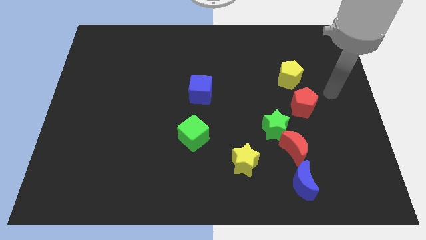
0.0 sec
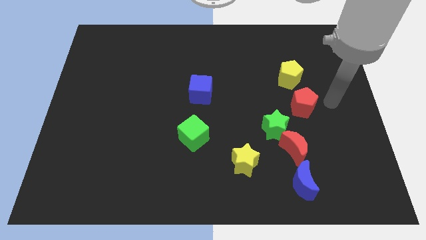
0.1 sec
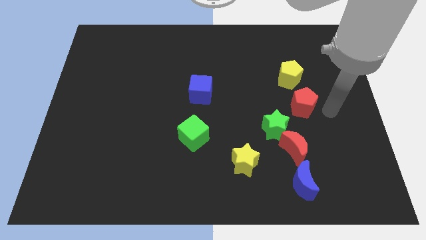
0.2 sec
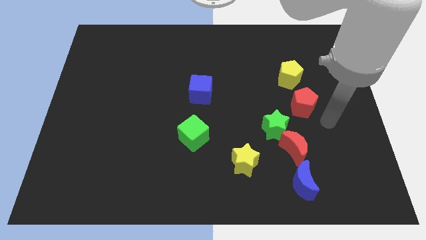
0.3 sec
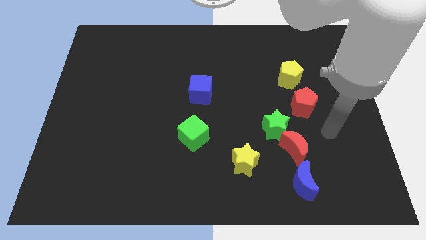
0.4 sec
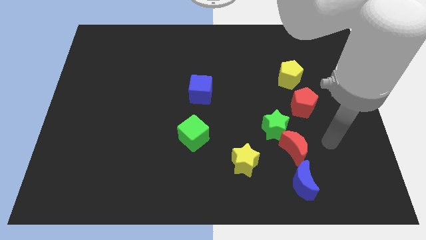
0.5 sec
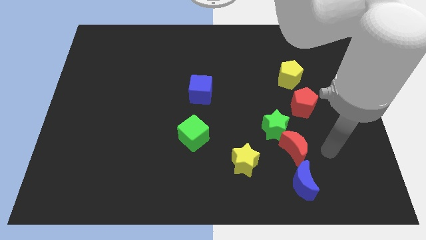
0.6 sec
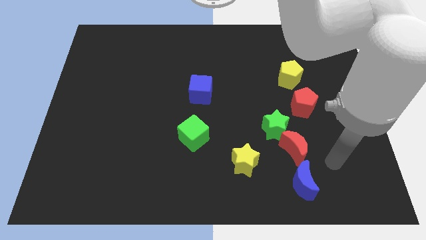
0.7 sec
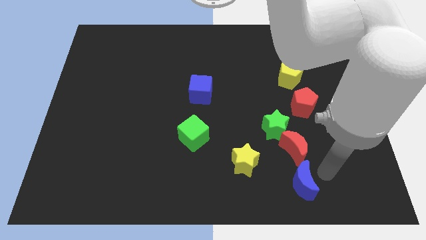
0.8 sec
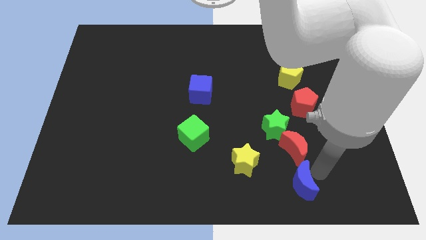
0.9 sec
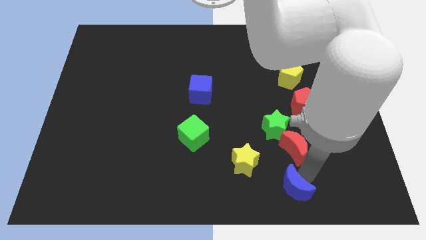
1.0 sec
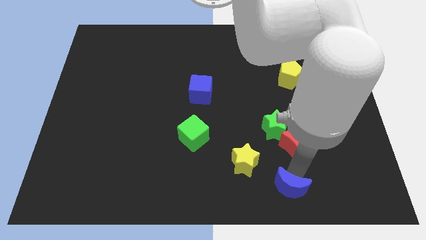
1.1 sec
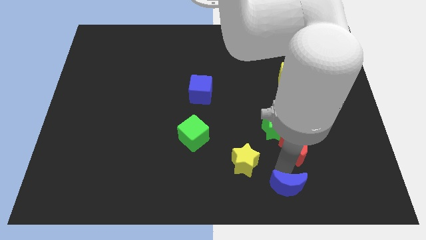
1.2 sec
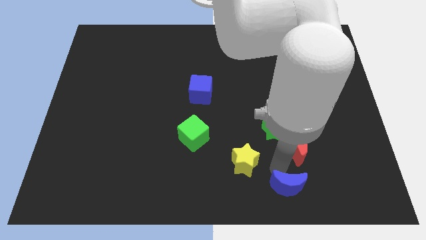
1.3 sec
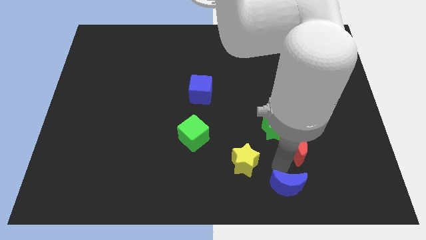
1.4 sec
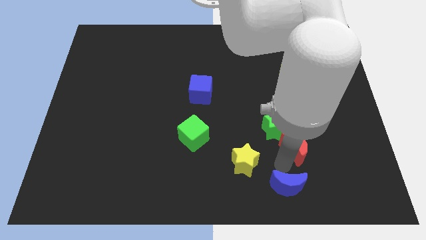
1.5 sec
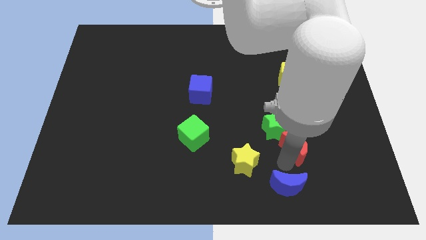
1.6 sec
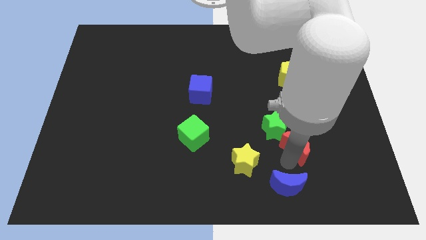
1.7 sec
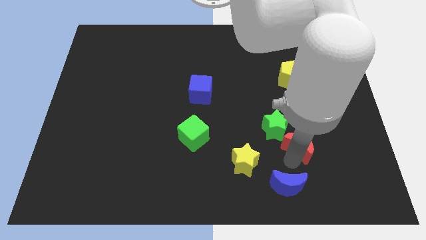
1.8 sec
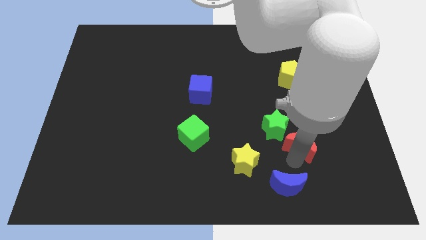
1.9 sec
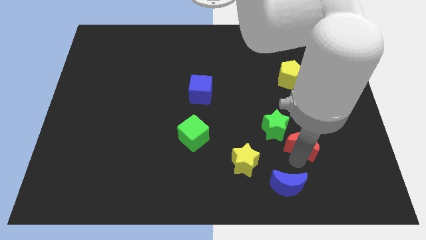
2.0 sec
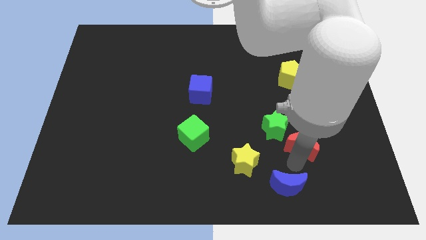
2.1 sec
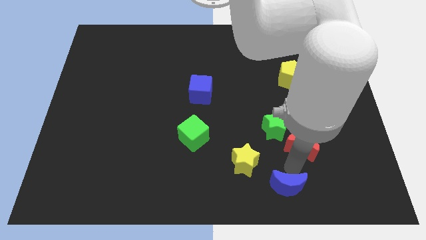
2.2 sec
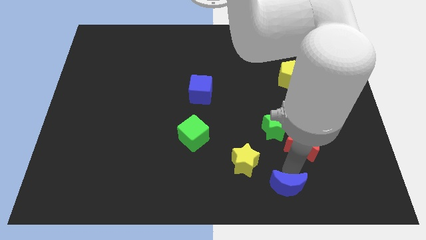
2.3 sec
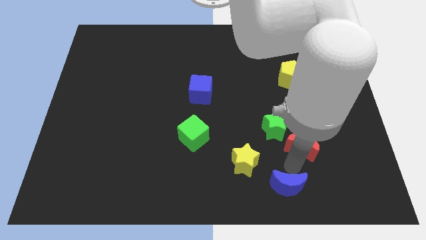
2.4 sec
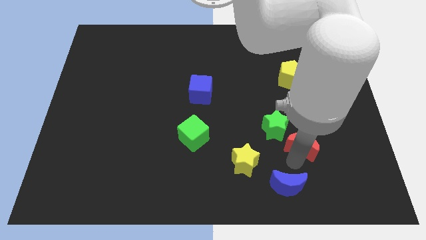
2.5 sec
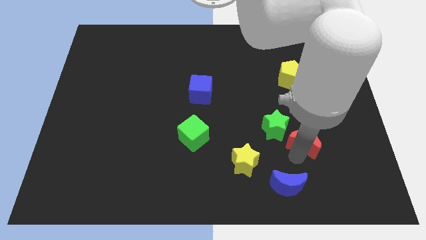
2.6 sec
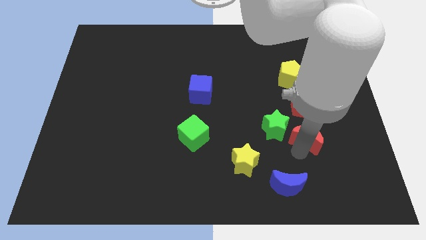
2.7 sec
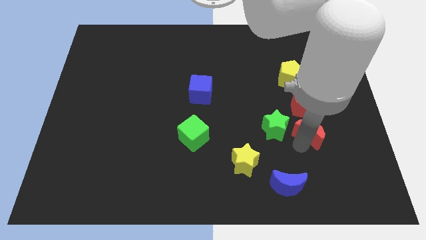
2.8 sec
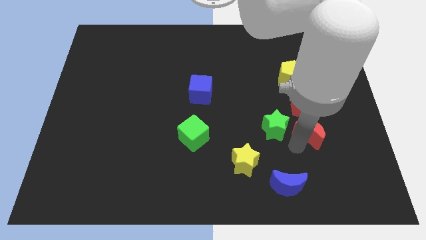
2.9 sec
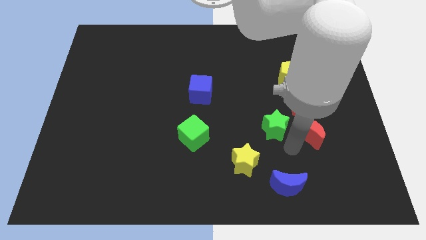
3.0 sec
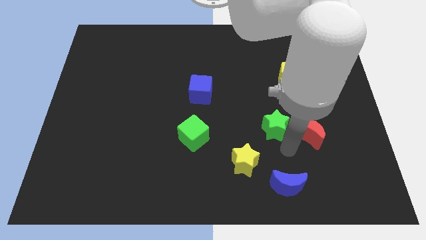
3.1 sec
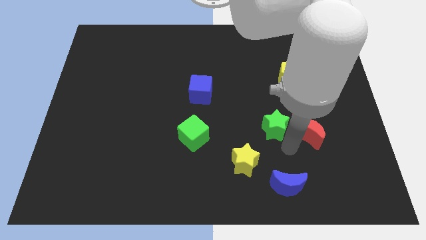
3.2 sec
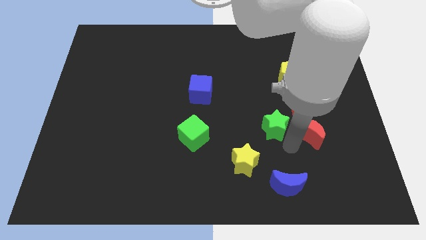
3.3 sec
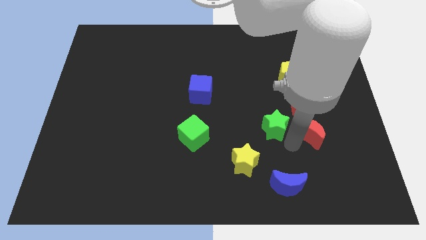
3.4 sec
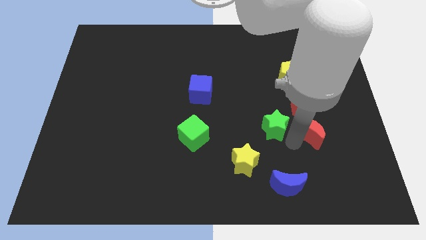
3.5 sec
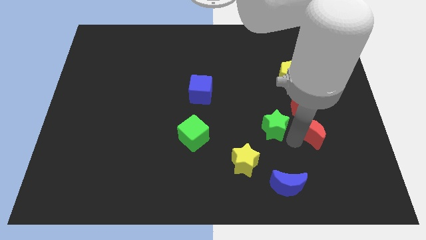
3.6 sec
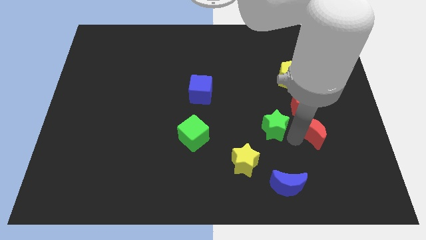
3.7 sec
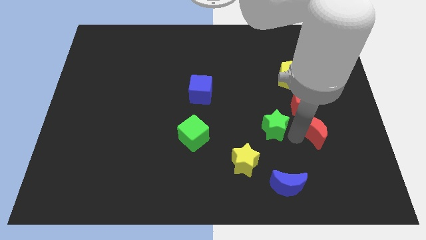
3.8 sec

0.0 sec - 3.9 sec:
pull the red moon apart from the green star and blue moon

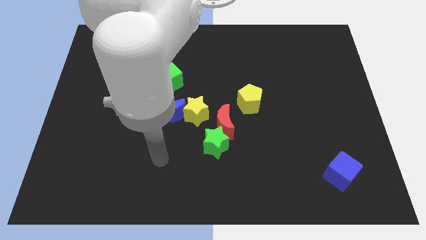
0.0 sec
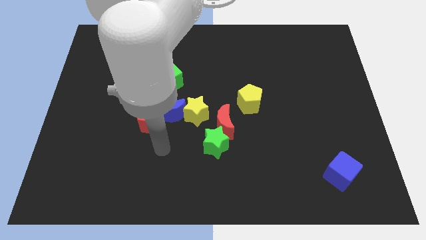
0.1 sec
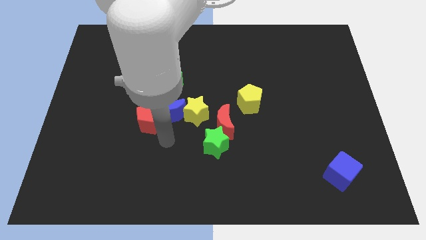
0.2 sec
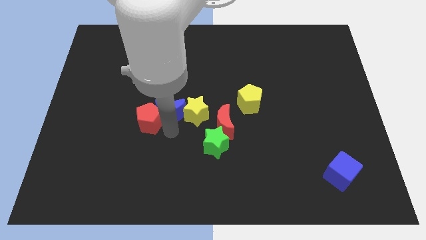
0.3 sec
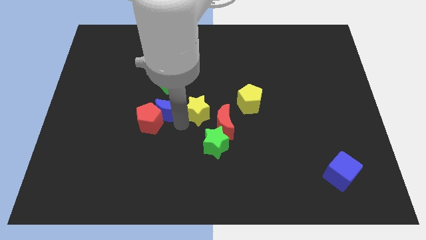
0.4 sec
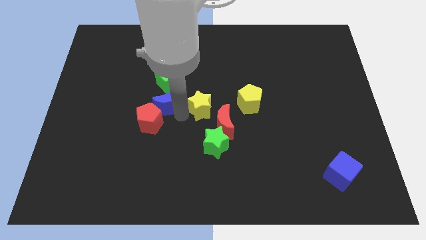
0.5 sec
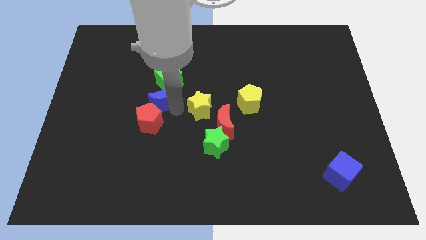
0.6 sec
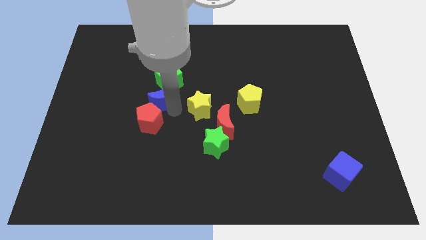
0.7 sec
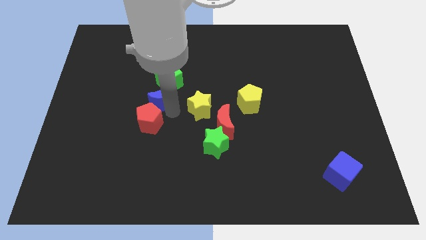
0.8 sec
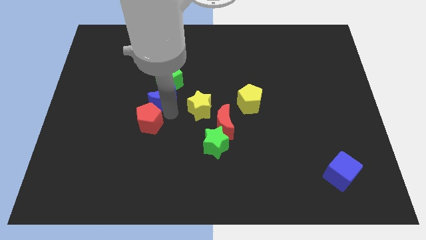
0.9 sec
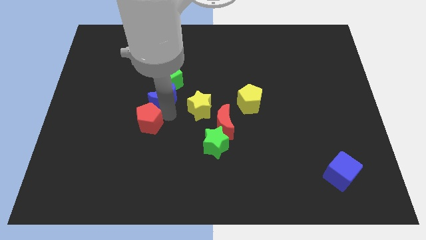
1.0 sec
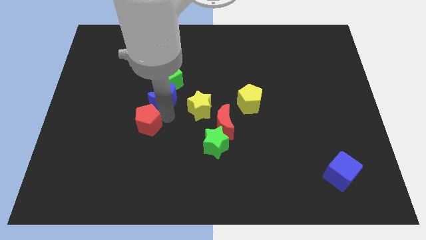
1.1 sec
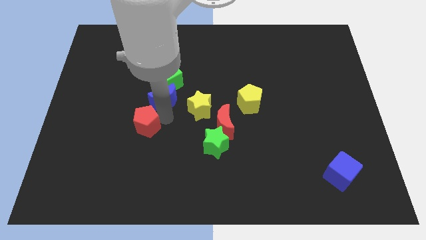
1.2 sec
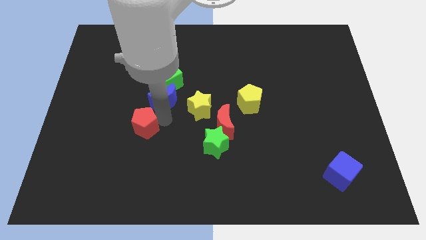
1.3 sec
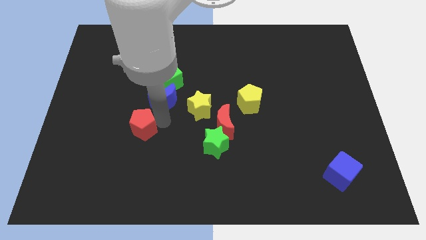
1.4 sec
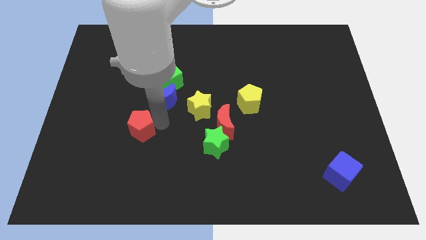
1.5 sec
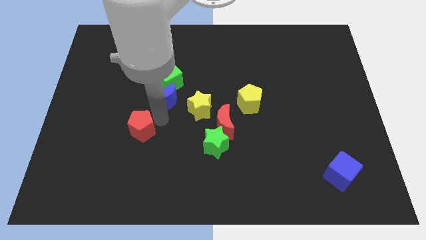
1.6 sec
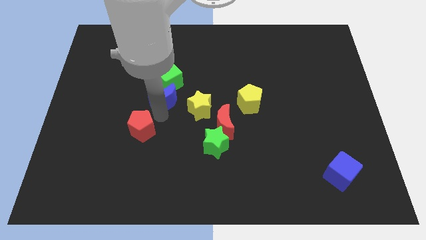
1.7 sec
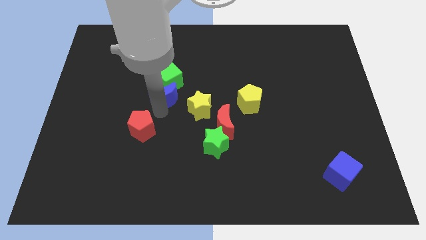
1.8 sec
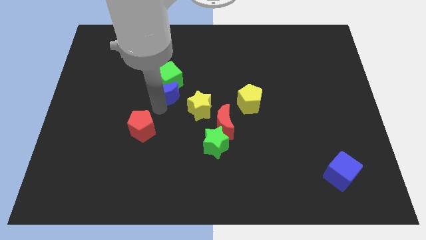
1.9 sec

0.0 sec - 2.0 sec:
separate the red pentagon from the blue moon

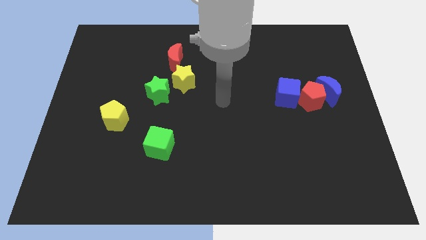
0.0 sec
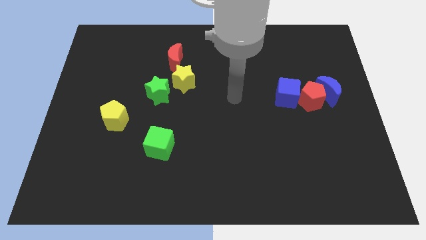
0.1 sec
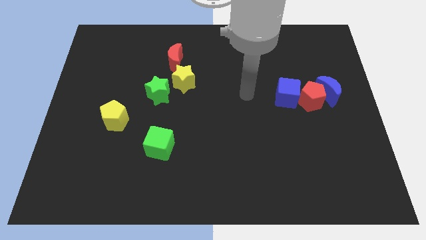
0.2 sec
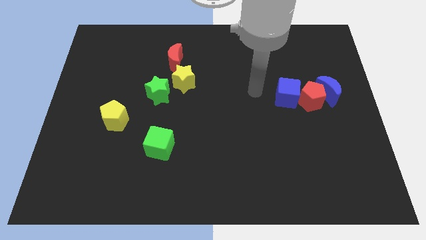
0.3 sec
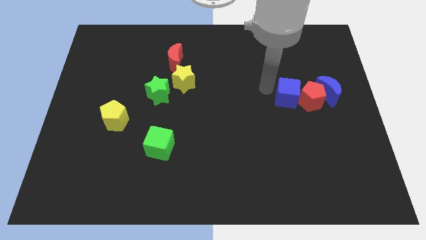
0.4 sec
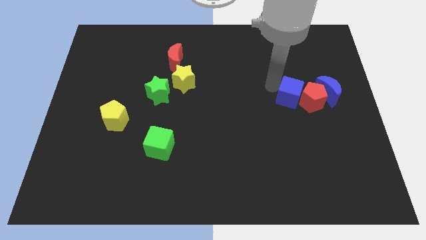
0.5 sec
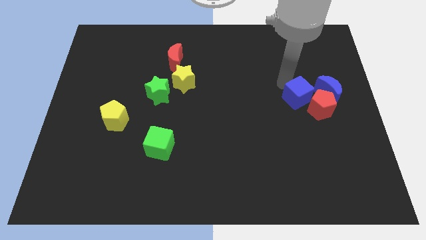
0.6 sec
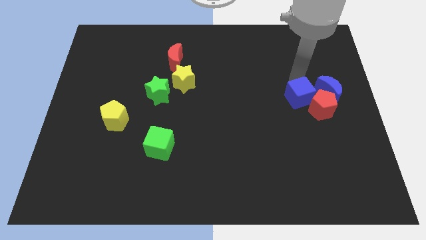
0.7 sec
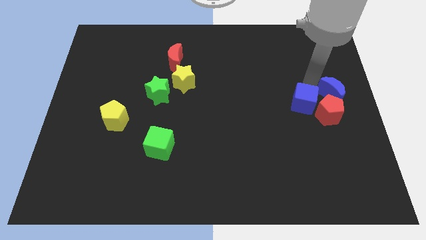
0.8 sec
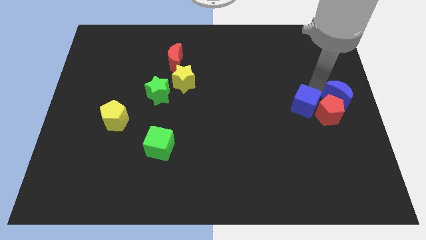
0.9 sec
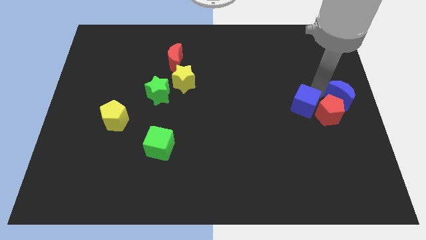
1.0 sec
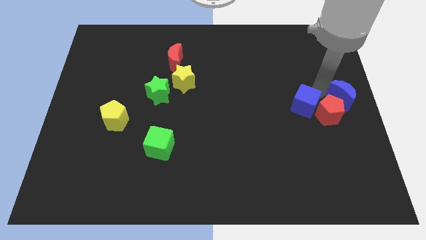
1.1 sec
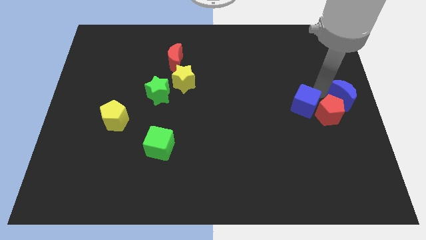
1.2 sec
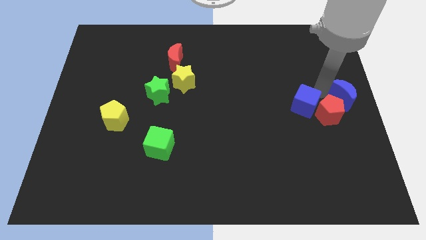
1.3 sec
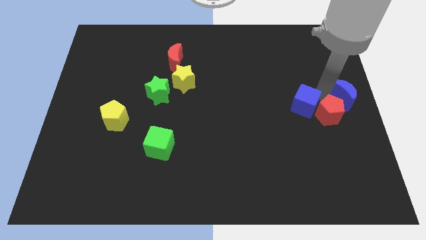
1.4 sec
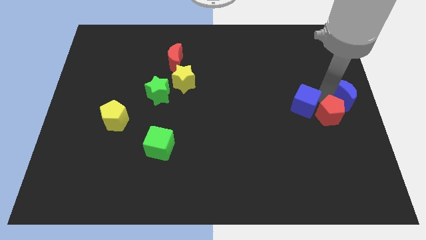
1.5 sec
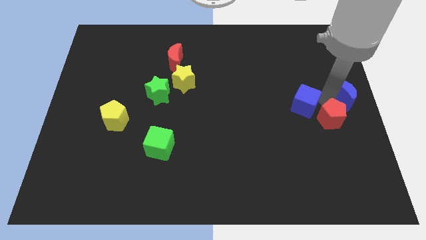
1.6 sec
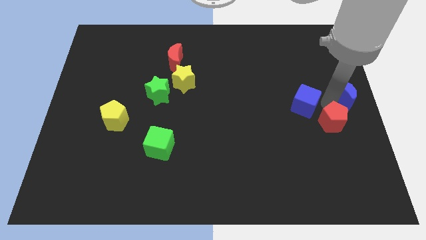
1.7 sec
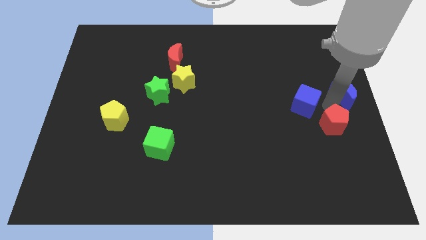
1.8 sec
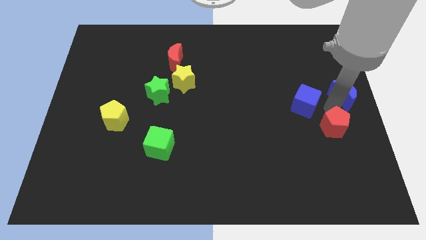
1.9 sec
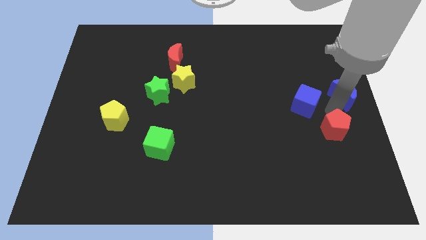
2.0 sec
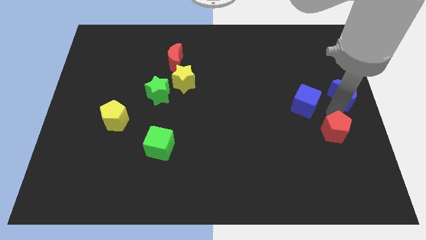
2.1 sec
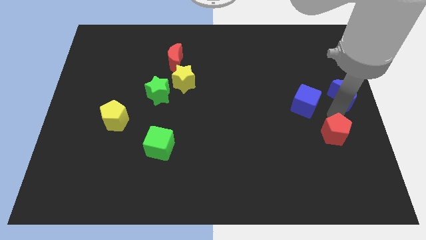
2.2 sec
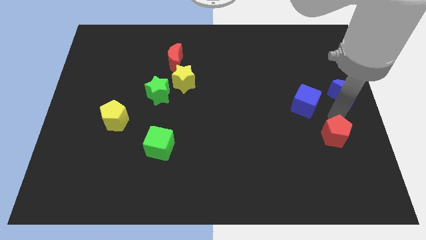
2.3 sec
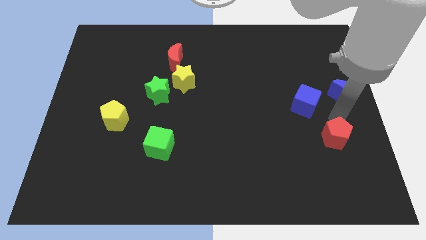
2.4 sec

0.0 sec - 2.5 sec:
move the red pentagon away from the blue moon and blue cube

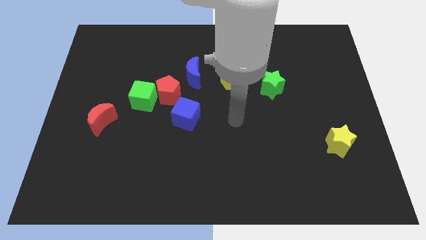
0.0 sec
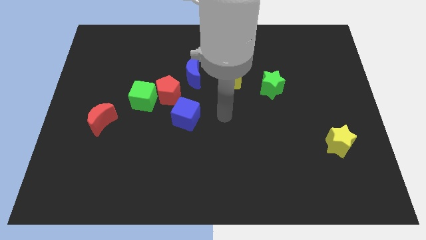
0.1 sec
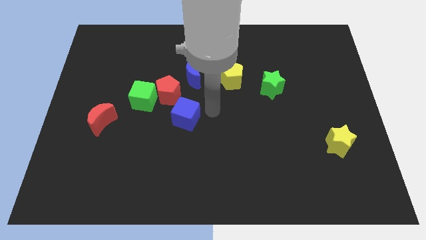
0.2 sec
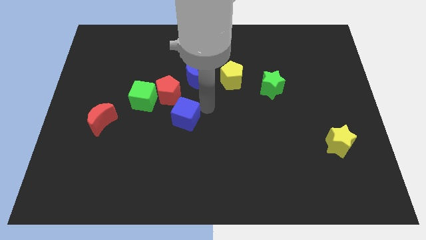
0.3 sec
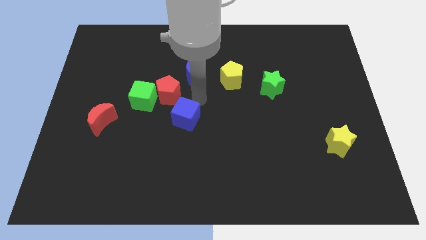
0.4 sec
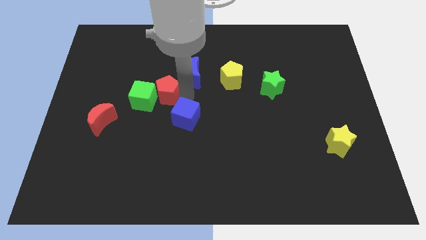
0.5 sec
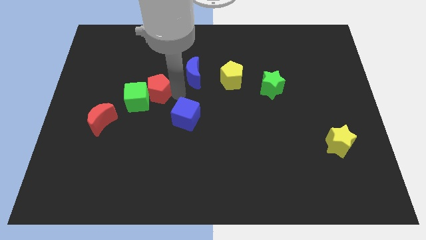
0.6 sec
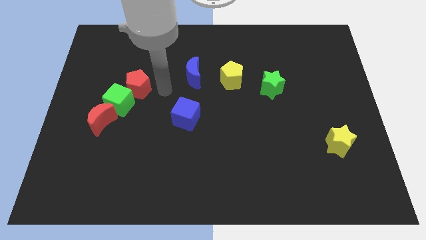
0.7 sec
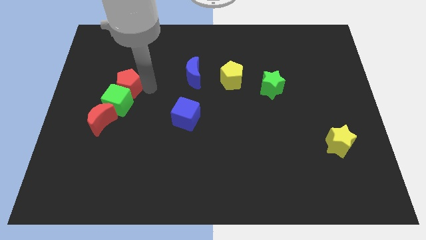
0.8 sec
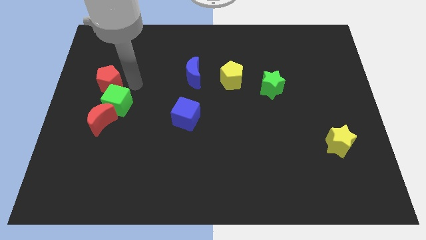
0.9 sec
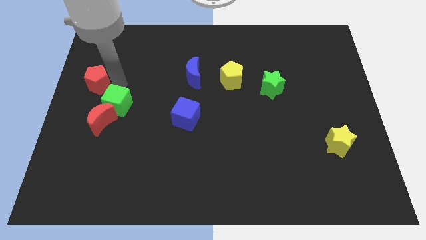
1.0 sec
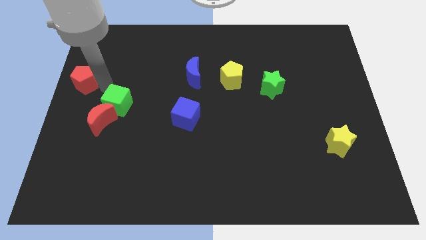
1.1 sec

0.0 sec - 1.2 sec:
pull the green cube apart from the red pentagon
